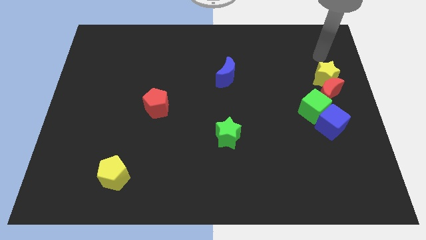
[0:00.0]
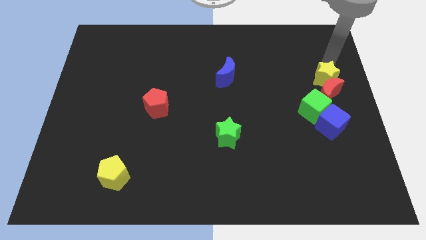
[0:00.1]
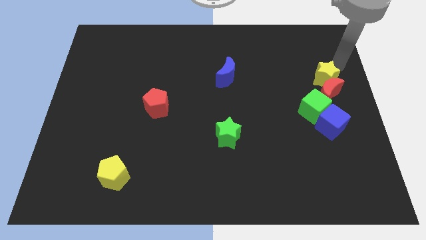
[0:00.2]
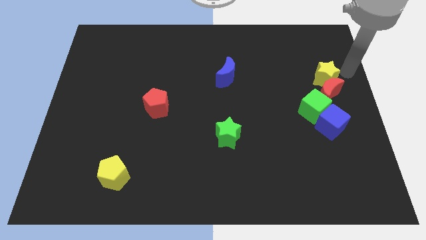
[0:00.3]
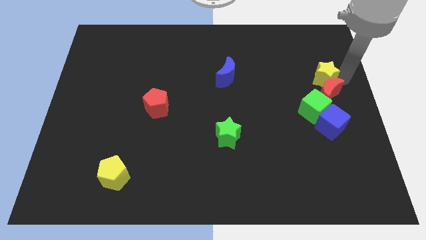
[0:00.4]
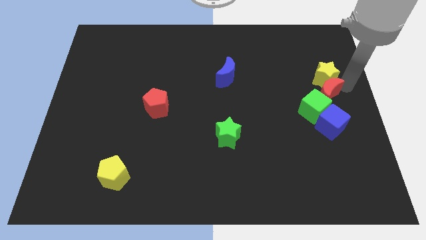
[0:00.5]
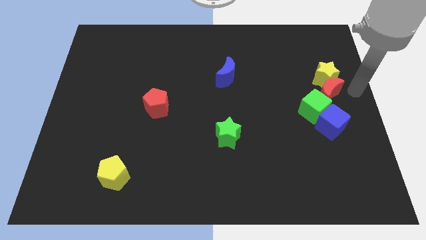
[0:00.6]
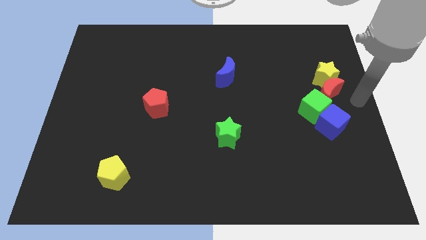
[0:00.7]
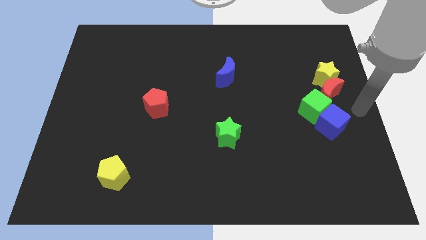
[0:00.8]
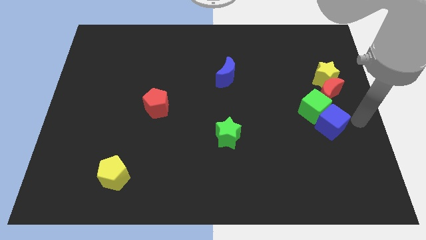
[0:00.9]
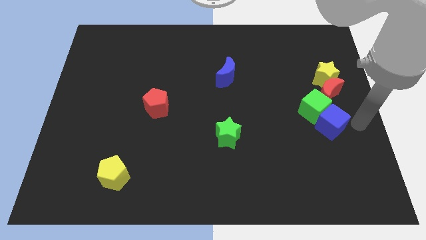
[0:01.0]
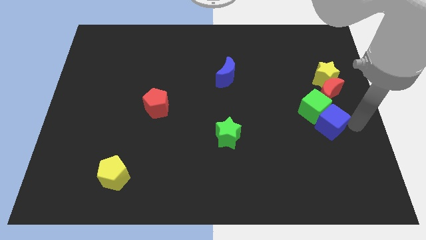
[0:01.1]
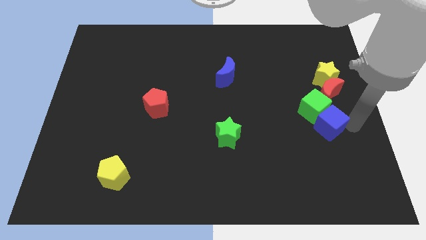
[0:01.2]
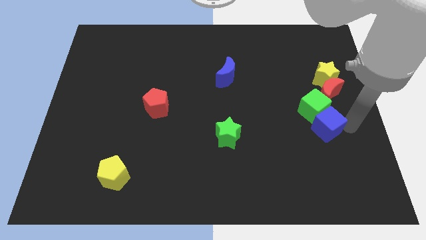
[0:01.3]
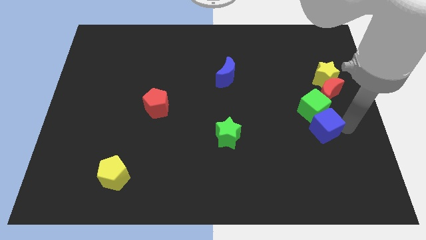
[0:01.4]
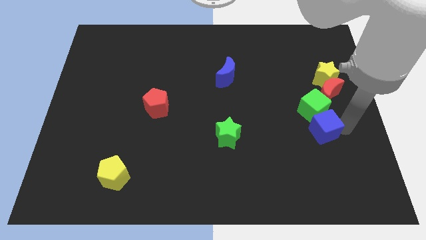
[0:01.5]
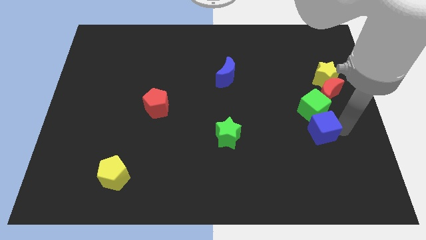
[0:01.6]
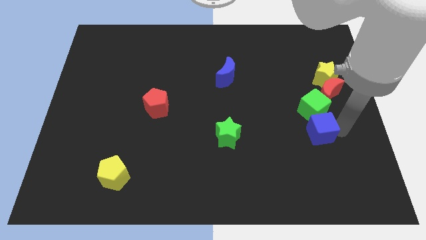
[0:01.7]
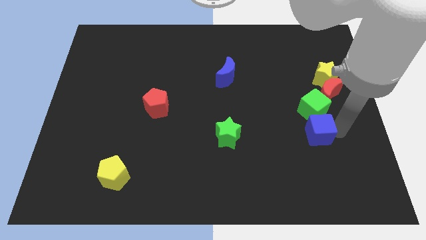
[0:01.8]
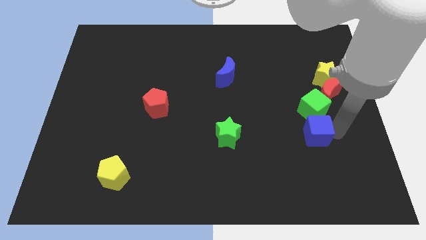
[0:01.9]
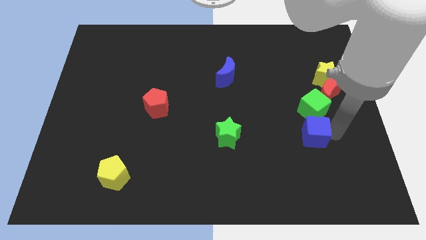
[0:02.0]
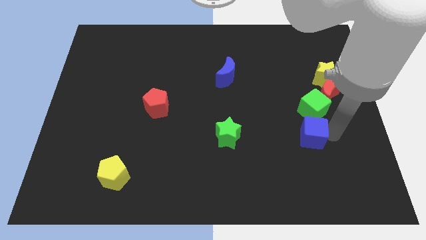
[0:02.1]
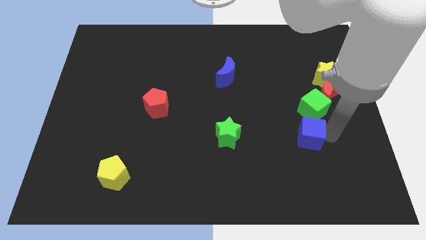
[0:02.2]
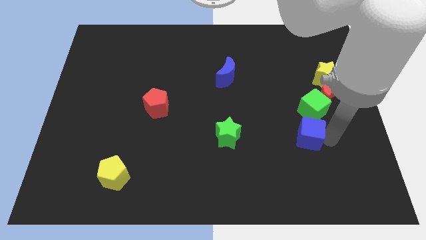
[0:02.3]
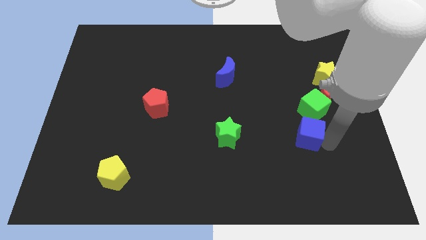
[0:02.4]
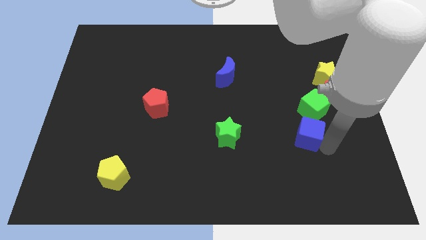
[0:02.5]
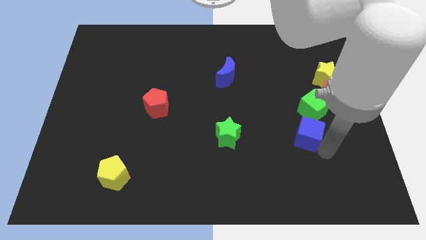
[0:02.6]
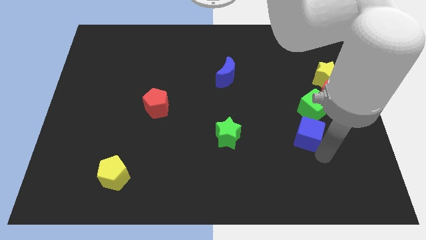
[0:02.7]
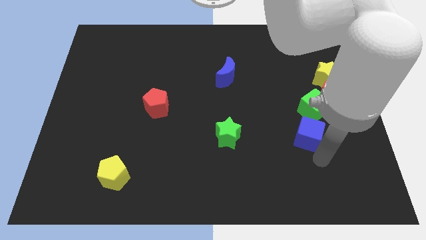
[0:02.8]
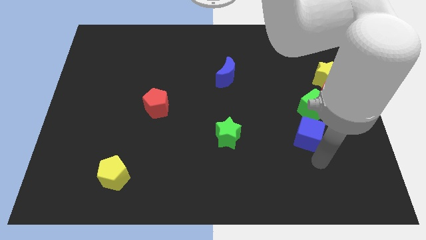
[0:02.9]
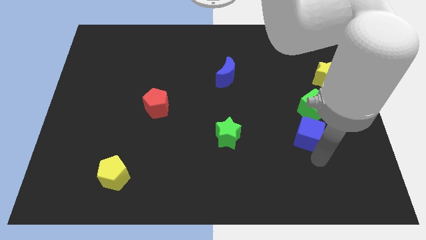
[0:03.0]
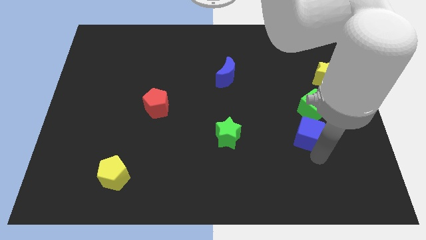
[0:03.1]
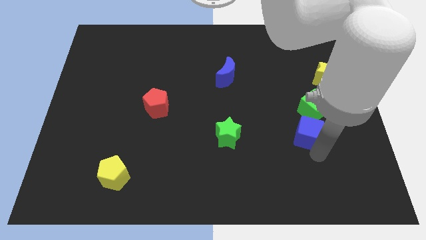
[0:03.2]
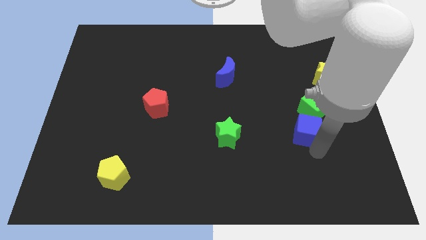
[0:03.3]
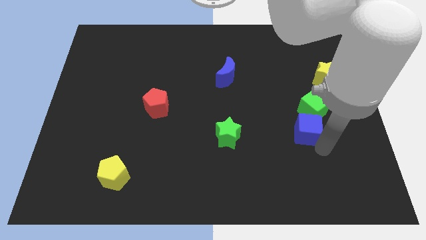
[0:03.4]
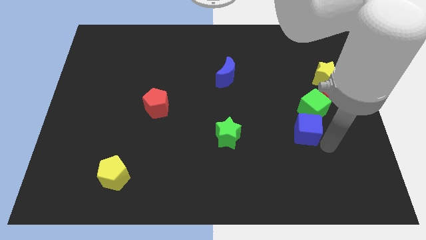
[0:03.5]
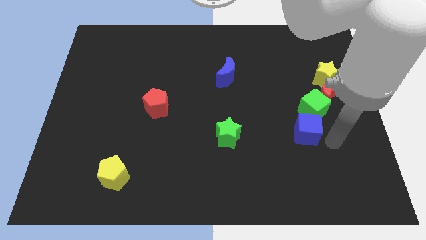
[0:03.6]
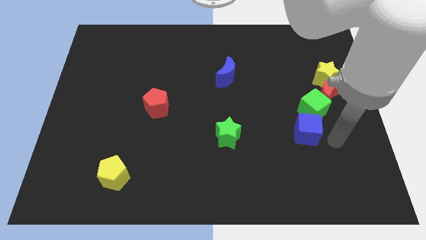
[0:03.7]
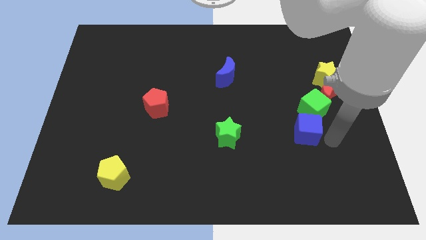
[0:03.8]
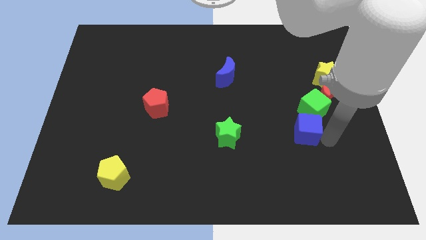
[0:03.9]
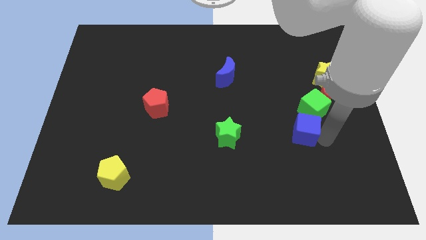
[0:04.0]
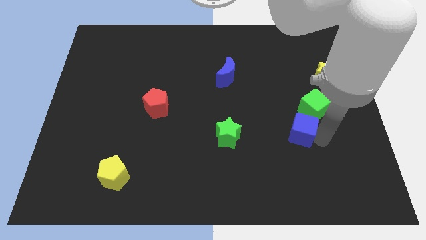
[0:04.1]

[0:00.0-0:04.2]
push the blue cube a bit left

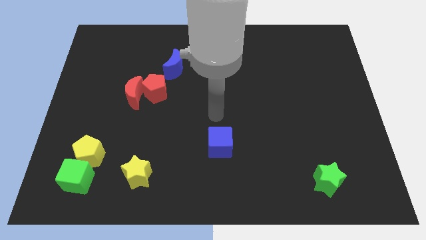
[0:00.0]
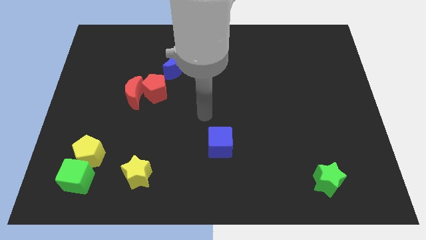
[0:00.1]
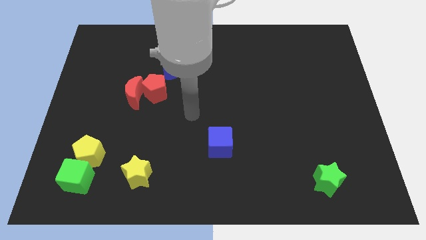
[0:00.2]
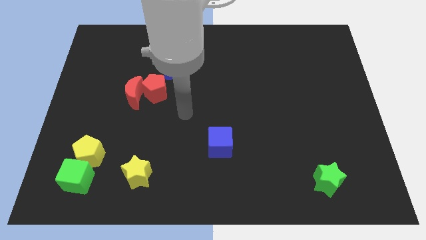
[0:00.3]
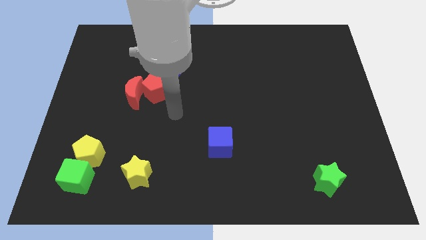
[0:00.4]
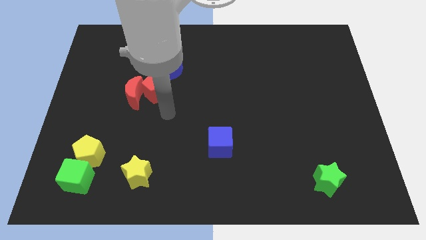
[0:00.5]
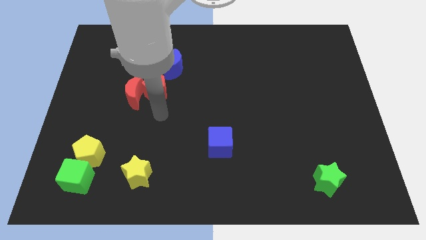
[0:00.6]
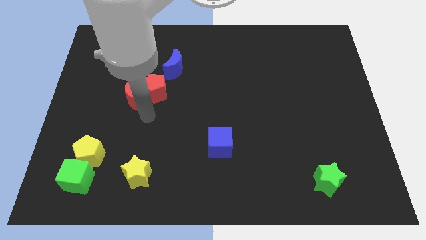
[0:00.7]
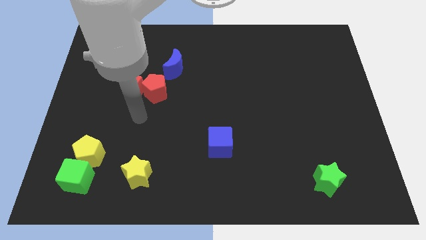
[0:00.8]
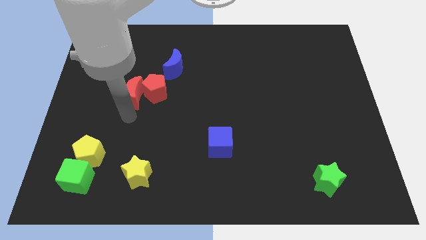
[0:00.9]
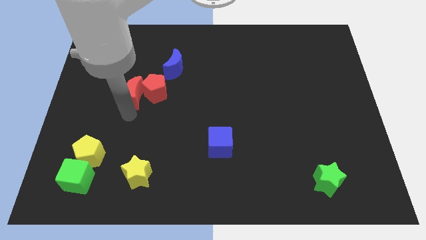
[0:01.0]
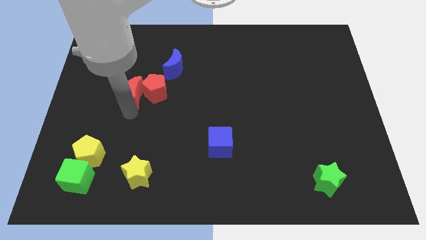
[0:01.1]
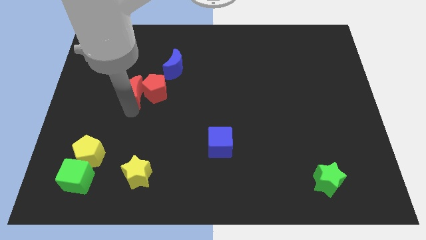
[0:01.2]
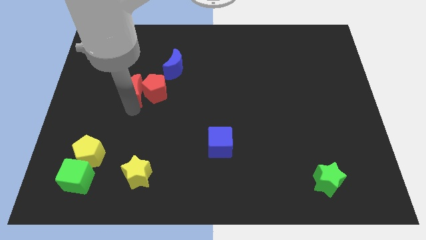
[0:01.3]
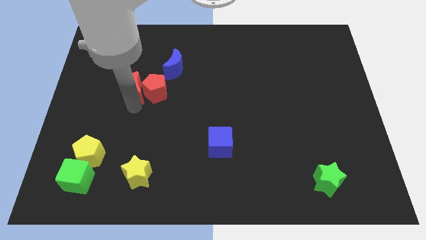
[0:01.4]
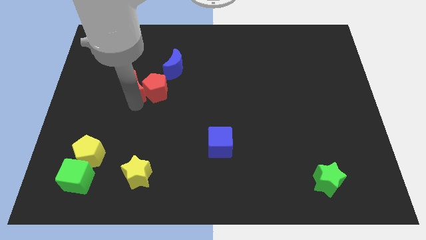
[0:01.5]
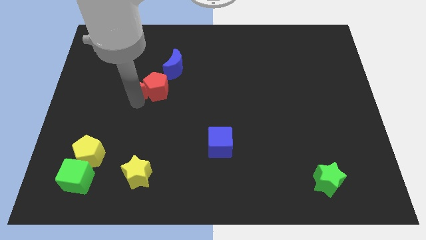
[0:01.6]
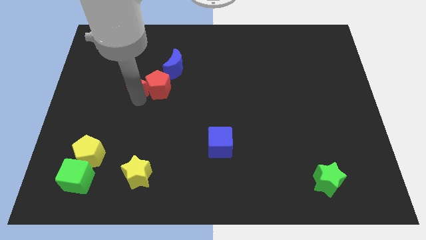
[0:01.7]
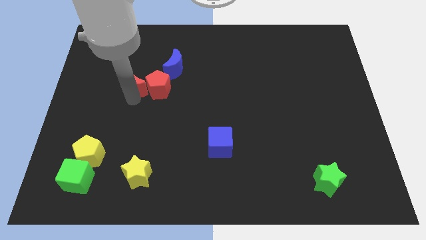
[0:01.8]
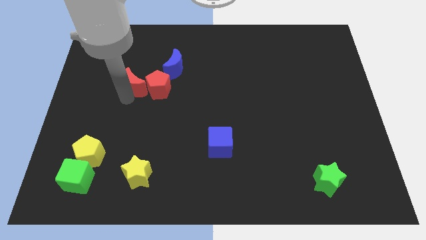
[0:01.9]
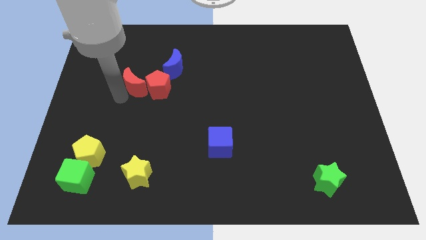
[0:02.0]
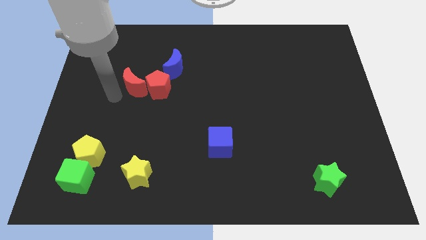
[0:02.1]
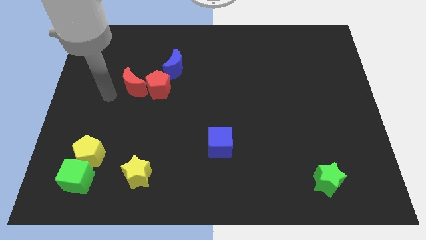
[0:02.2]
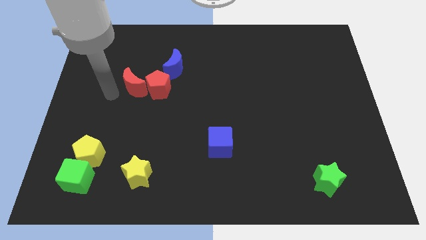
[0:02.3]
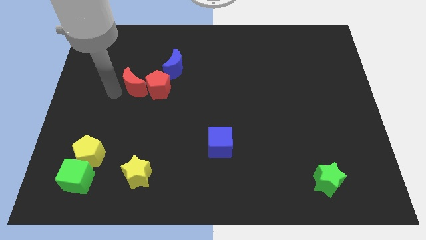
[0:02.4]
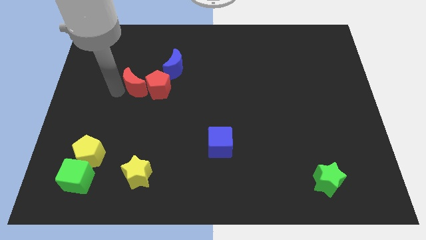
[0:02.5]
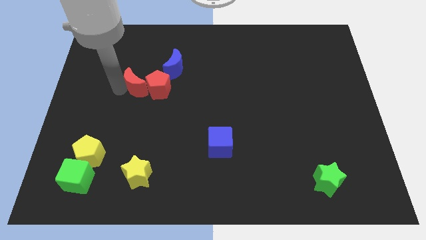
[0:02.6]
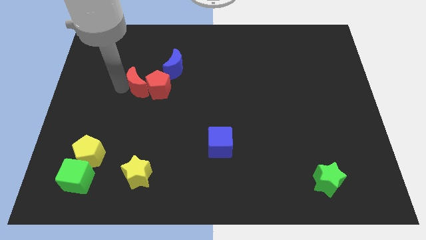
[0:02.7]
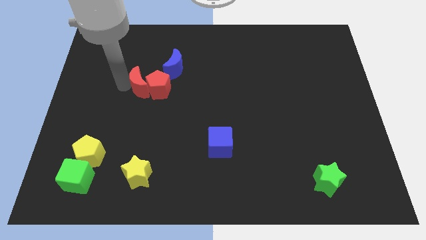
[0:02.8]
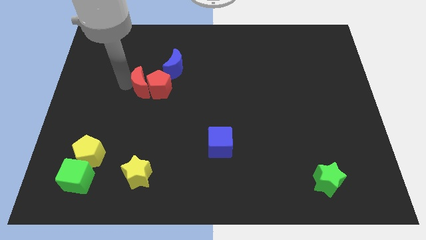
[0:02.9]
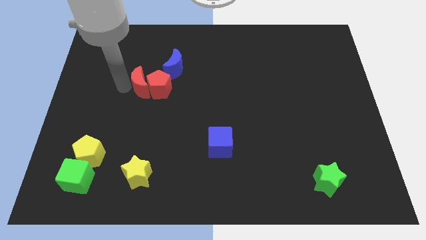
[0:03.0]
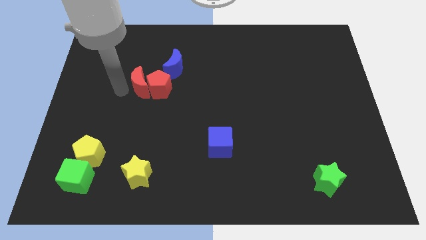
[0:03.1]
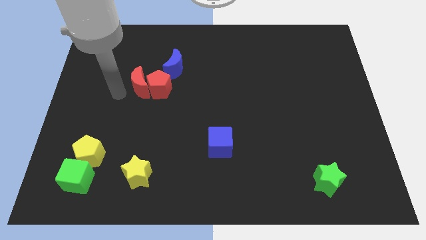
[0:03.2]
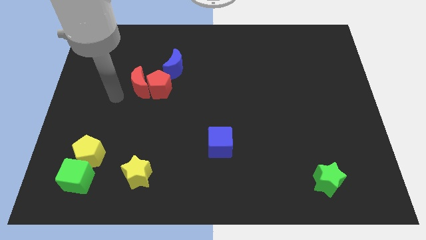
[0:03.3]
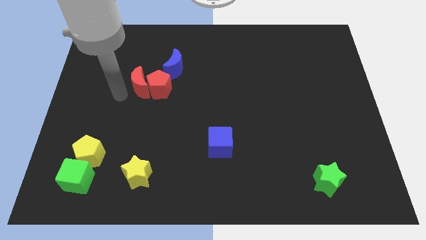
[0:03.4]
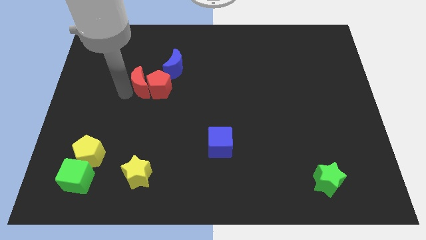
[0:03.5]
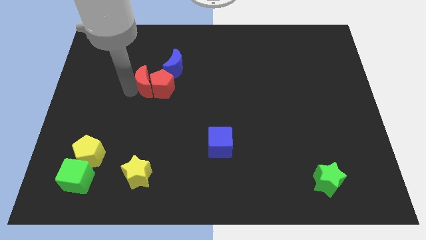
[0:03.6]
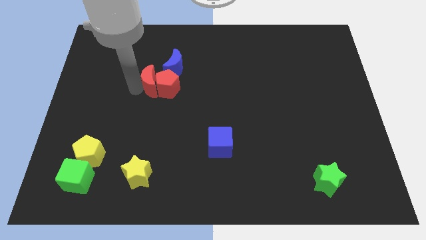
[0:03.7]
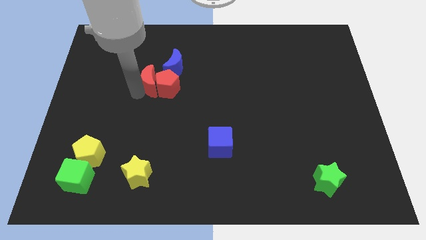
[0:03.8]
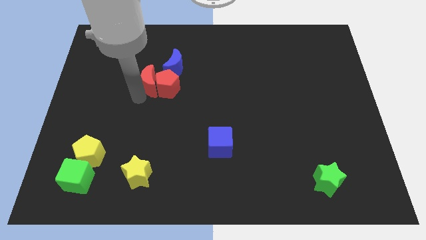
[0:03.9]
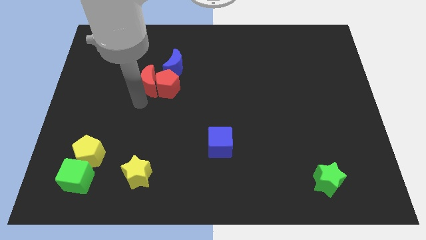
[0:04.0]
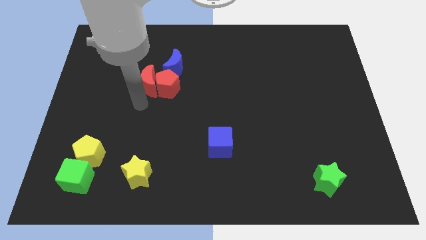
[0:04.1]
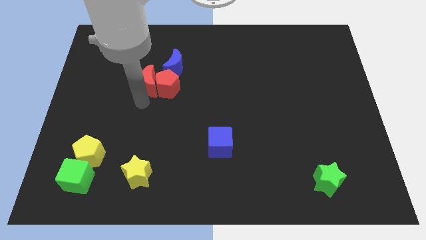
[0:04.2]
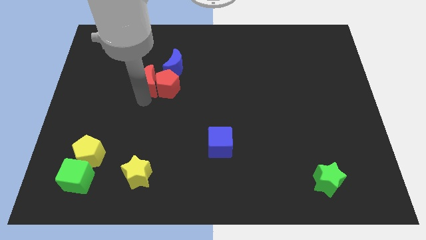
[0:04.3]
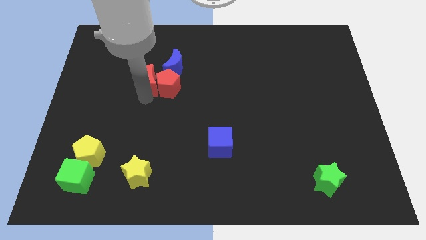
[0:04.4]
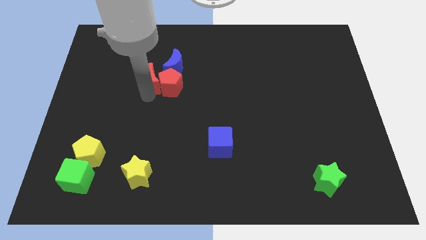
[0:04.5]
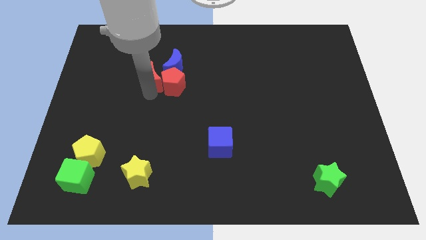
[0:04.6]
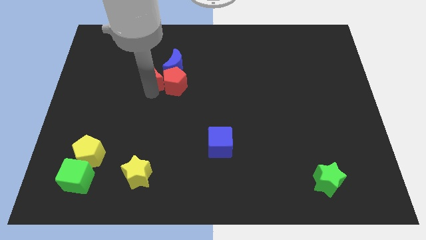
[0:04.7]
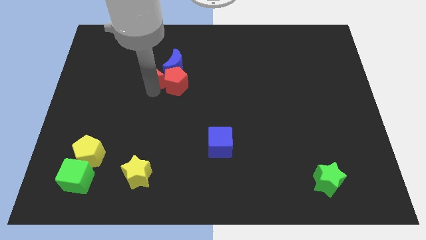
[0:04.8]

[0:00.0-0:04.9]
push the red moon diagonally upwards and to the right somewhat
